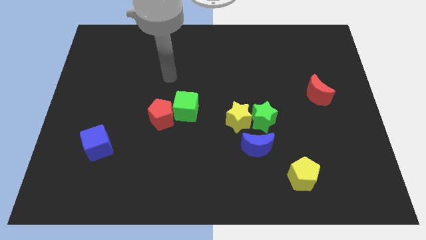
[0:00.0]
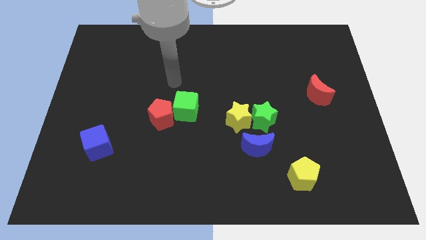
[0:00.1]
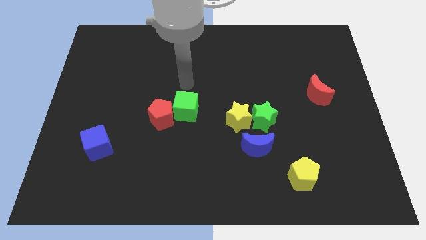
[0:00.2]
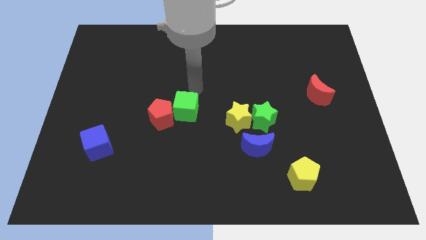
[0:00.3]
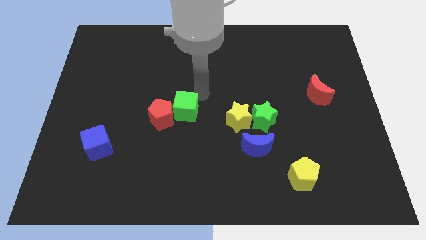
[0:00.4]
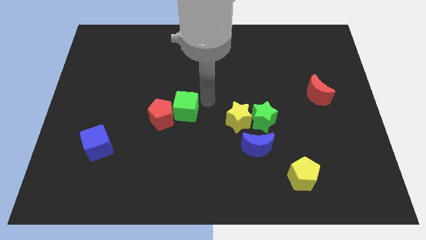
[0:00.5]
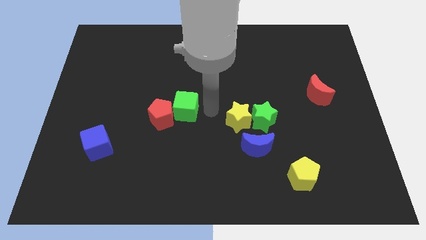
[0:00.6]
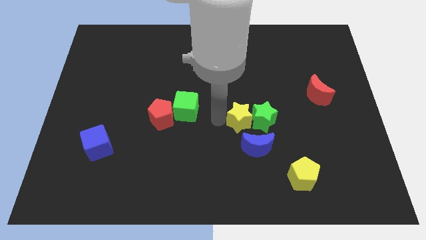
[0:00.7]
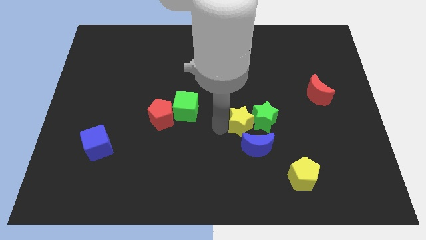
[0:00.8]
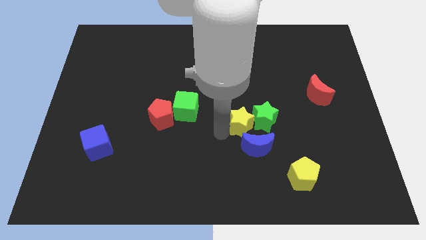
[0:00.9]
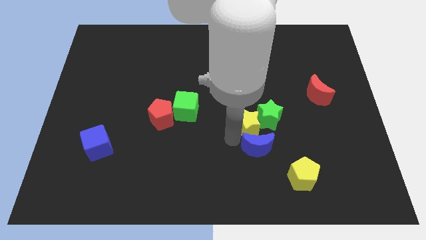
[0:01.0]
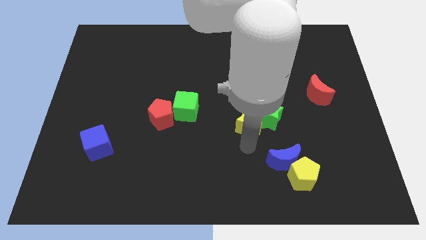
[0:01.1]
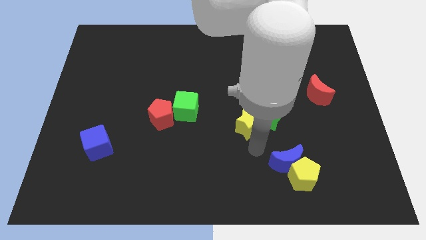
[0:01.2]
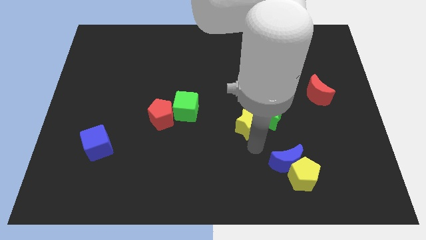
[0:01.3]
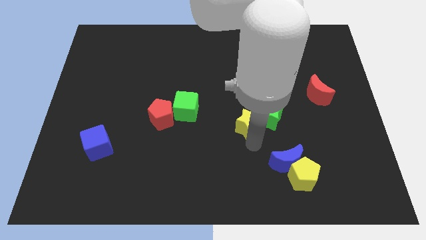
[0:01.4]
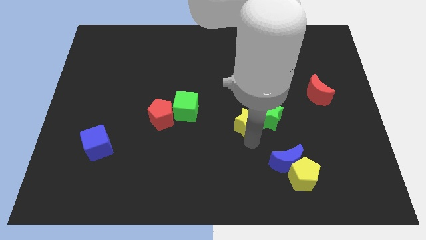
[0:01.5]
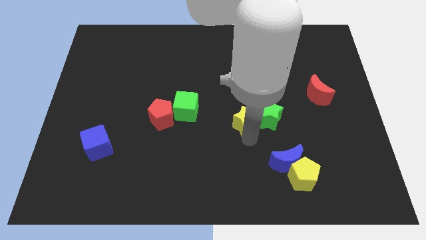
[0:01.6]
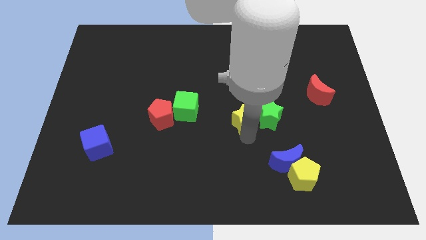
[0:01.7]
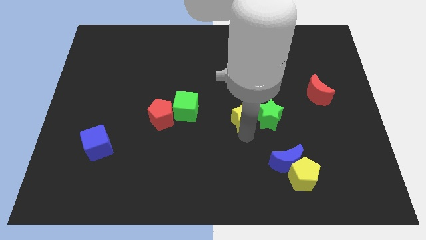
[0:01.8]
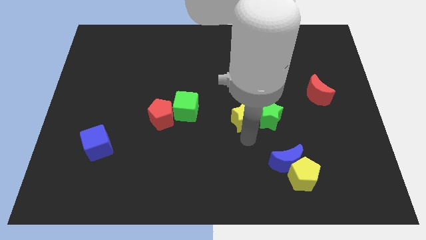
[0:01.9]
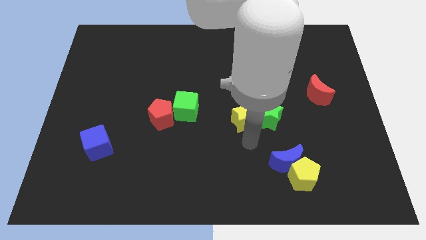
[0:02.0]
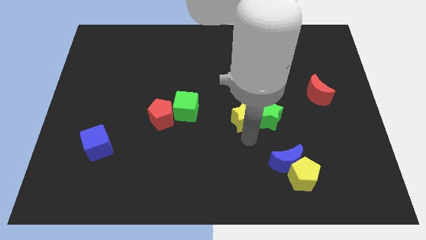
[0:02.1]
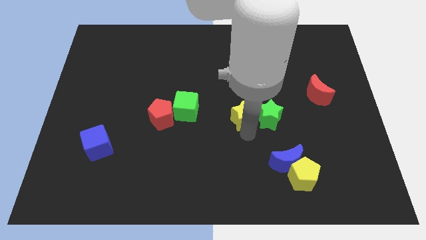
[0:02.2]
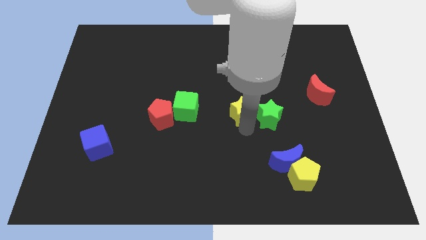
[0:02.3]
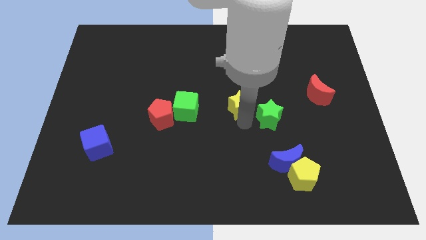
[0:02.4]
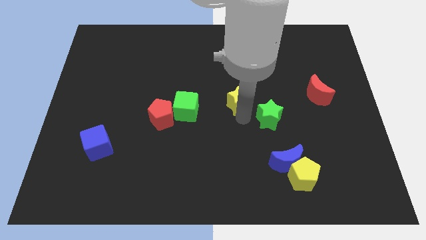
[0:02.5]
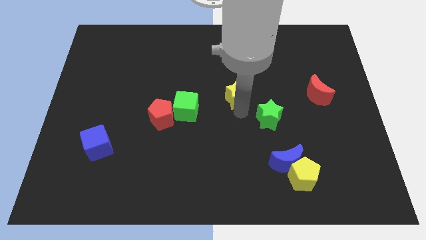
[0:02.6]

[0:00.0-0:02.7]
move the yellow star a bit up

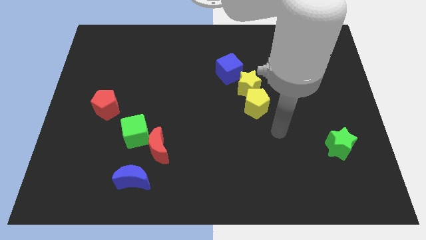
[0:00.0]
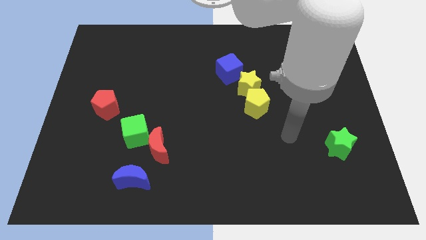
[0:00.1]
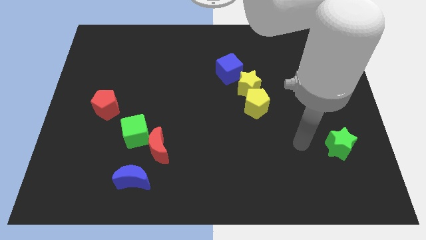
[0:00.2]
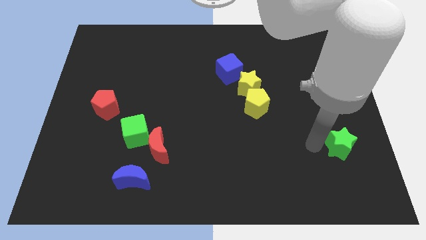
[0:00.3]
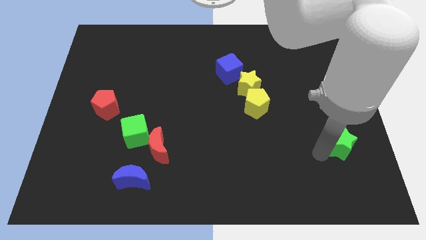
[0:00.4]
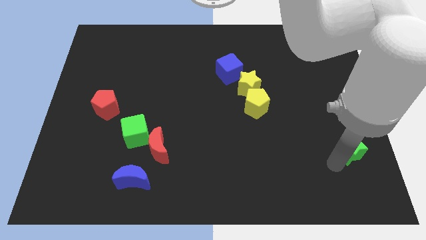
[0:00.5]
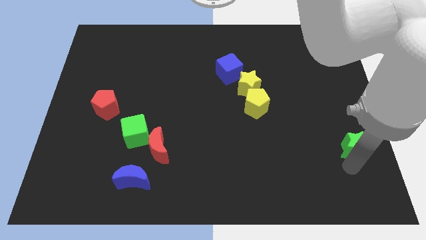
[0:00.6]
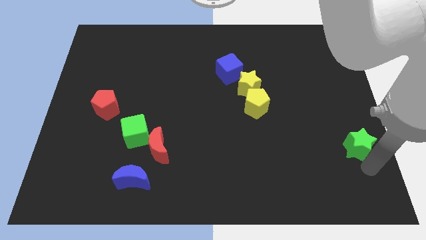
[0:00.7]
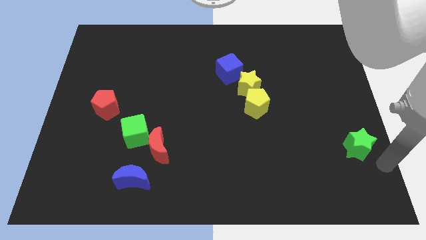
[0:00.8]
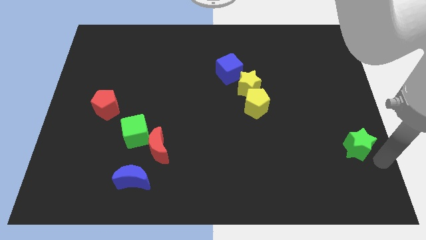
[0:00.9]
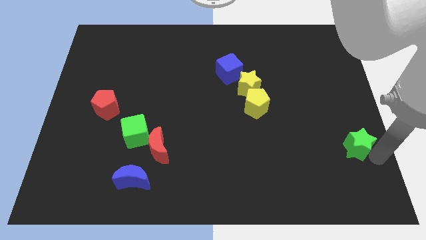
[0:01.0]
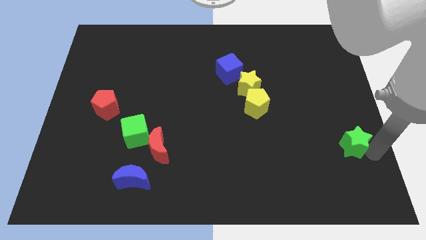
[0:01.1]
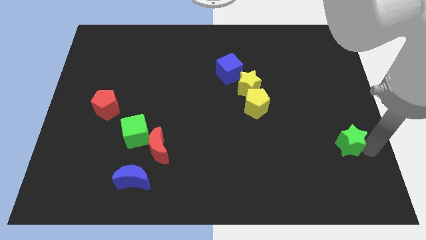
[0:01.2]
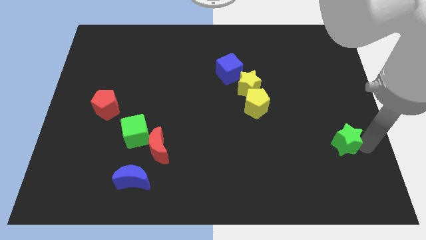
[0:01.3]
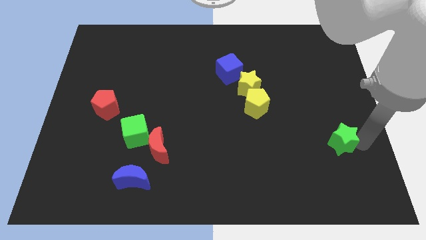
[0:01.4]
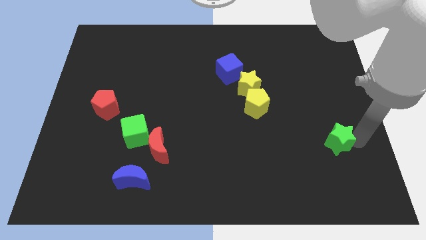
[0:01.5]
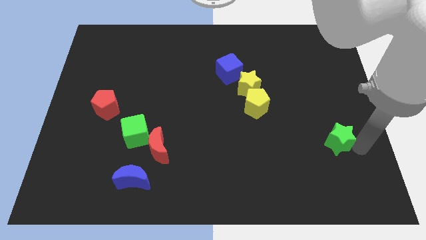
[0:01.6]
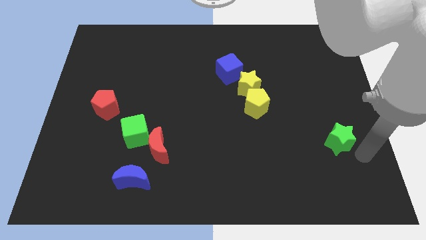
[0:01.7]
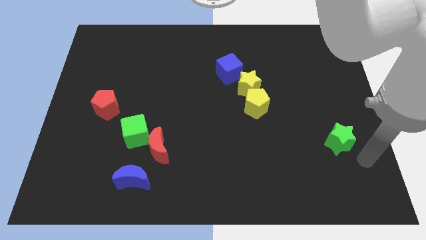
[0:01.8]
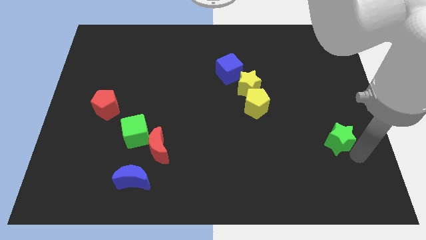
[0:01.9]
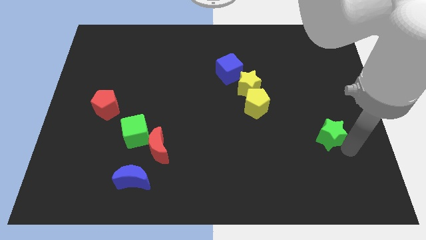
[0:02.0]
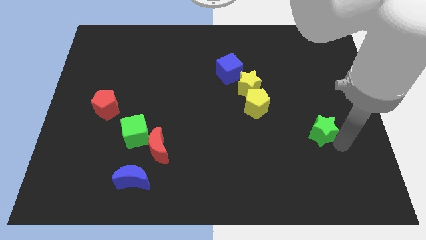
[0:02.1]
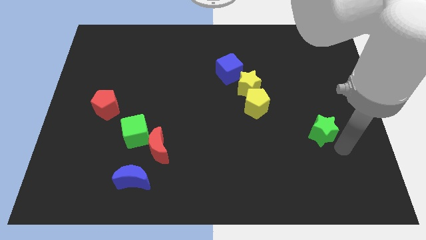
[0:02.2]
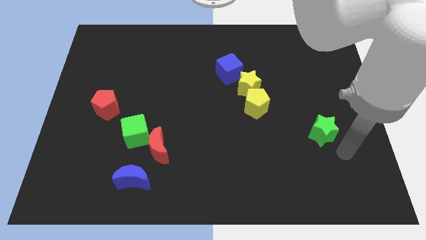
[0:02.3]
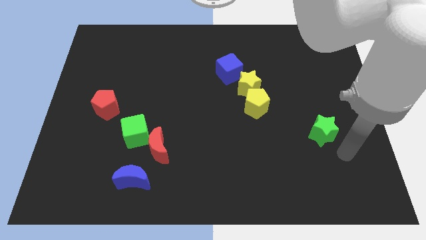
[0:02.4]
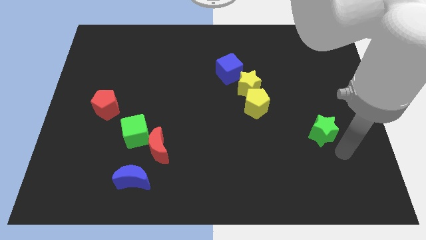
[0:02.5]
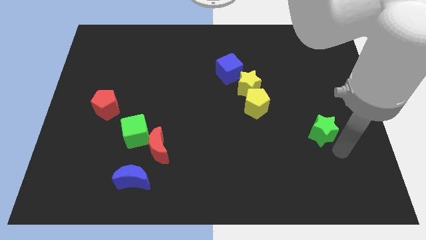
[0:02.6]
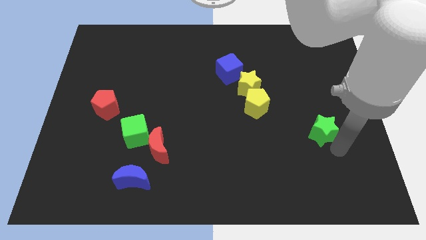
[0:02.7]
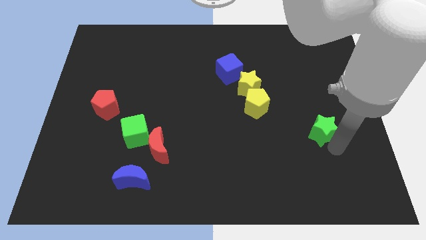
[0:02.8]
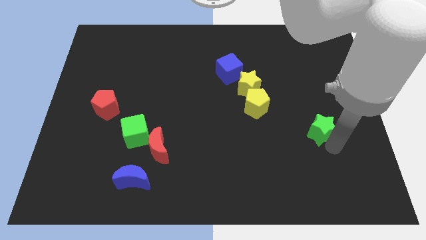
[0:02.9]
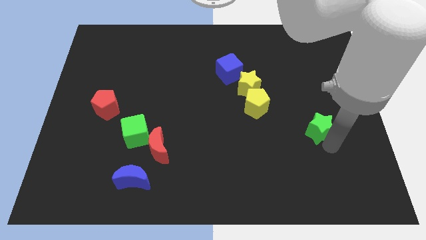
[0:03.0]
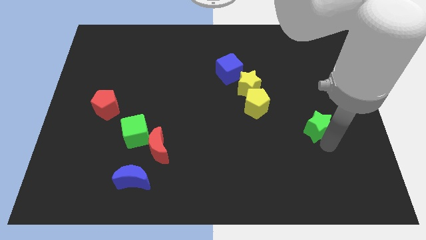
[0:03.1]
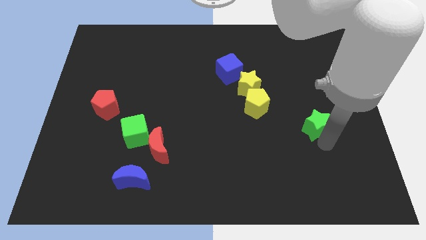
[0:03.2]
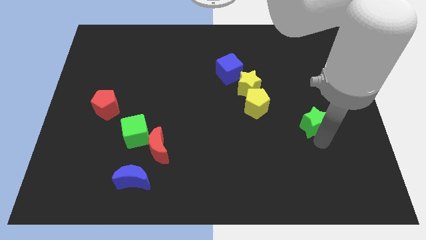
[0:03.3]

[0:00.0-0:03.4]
slightly push the green star diagonally up and left

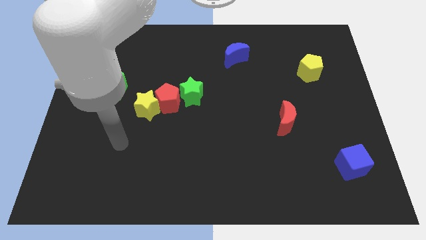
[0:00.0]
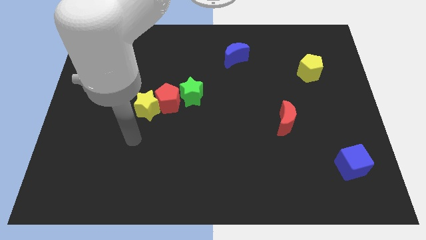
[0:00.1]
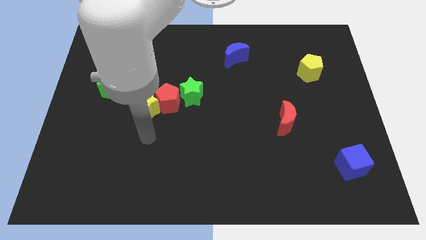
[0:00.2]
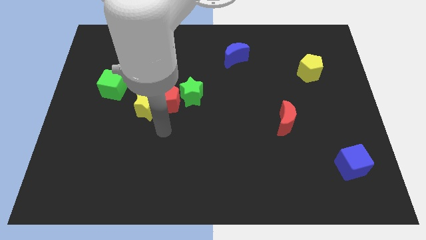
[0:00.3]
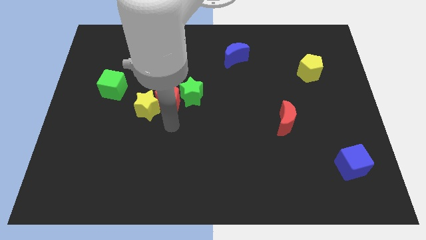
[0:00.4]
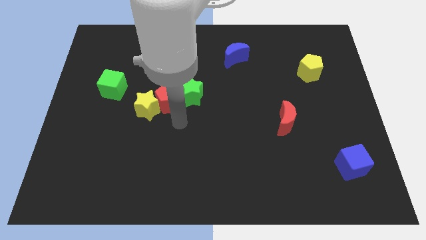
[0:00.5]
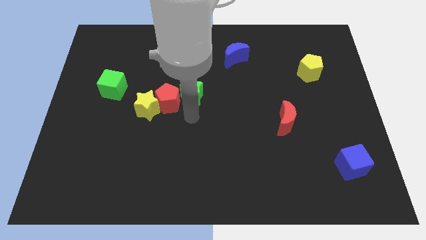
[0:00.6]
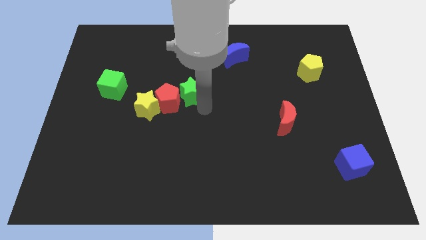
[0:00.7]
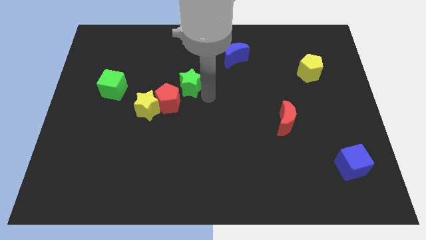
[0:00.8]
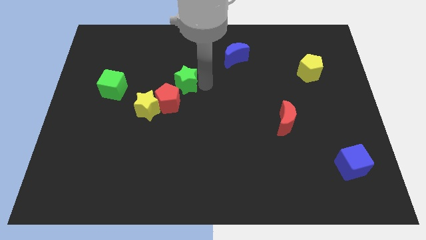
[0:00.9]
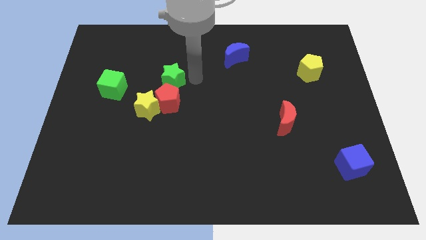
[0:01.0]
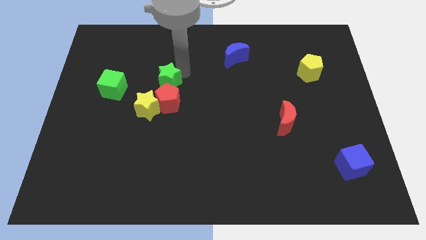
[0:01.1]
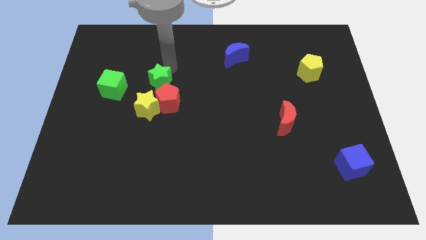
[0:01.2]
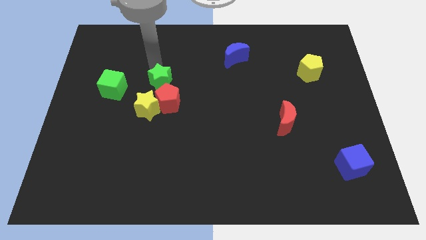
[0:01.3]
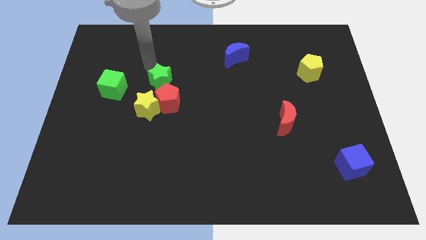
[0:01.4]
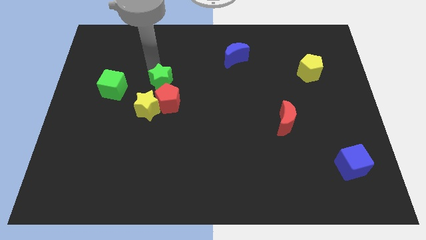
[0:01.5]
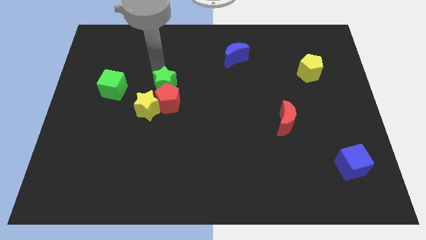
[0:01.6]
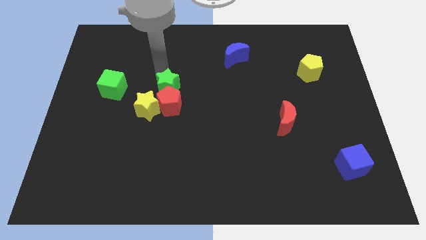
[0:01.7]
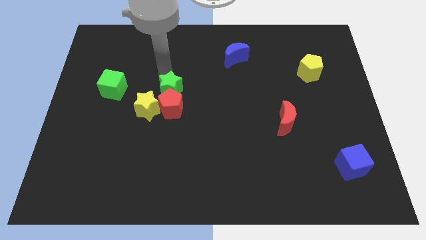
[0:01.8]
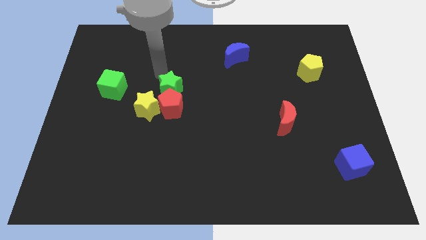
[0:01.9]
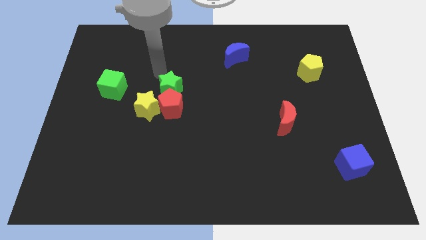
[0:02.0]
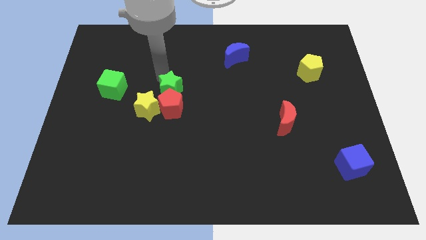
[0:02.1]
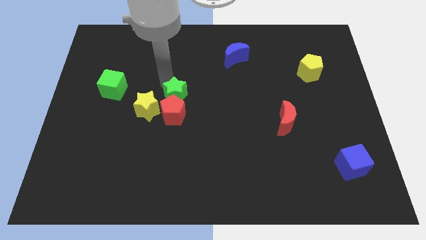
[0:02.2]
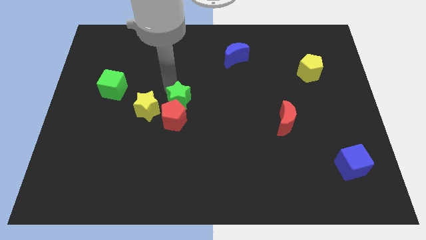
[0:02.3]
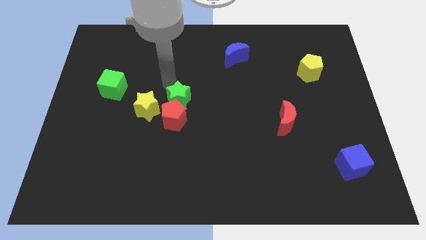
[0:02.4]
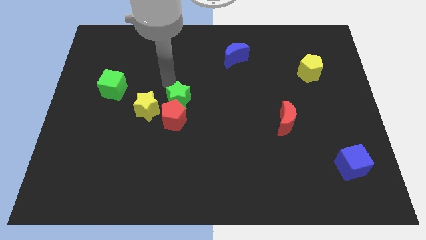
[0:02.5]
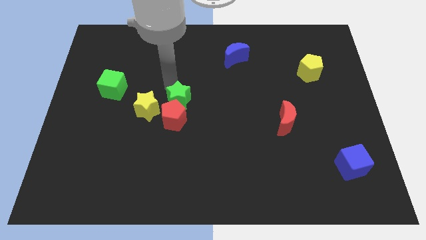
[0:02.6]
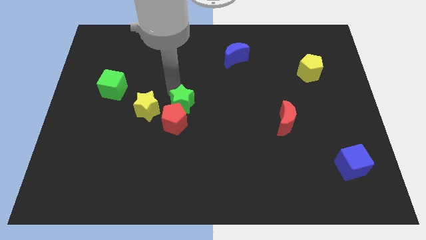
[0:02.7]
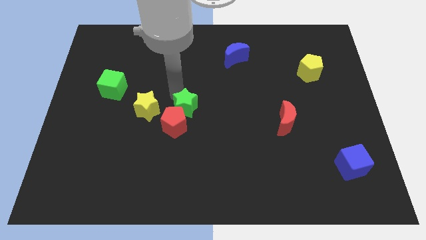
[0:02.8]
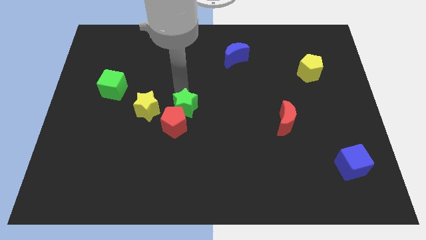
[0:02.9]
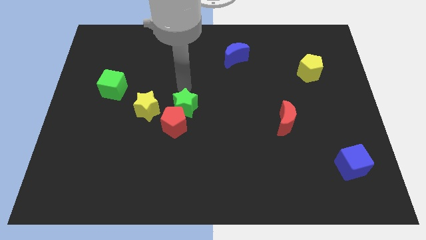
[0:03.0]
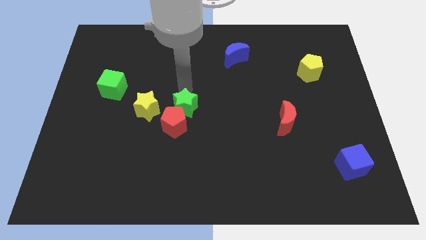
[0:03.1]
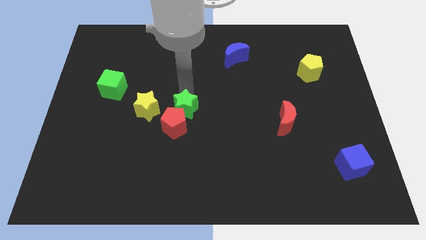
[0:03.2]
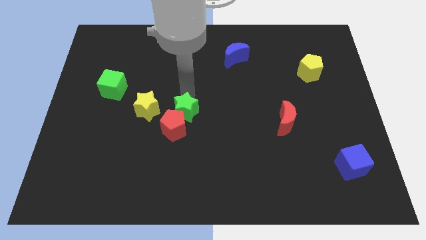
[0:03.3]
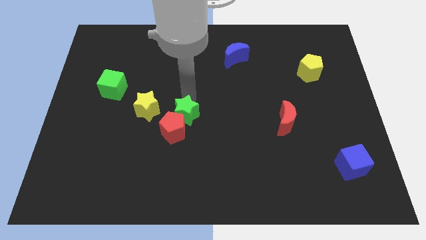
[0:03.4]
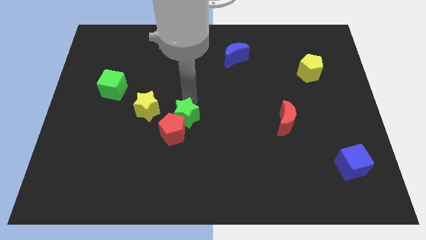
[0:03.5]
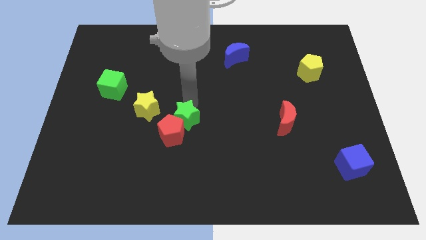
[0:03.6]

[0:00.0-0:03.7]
slightly push the green star downwards
